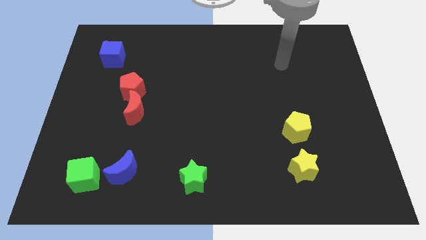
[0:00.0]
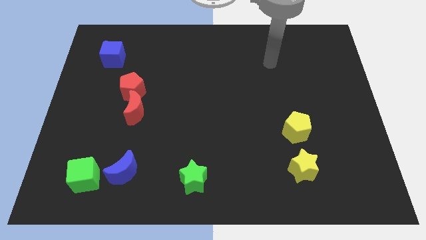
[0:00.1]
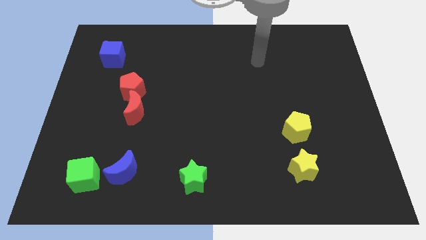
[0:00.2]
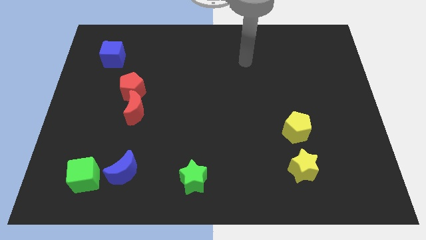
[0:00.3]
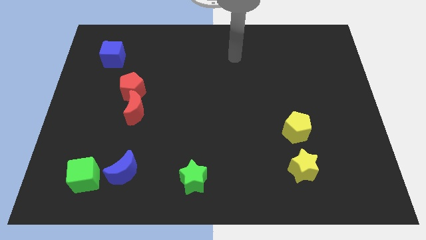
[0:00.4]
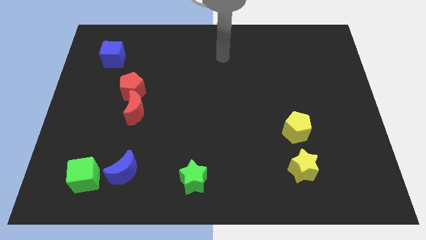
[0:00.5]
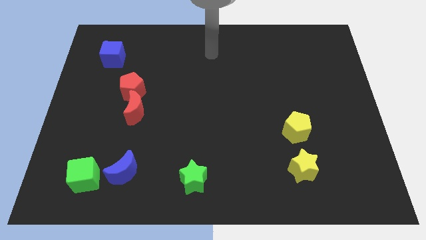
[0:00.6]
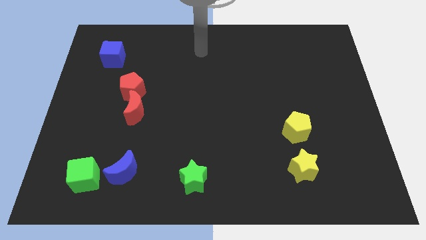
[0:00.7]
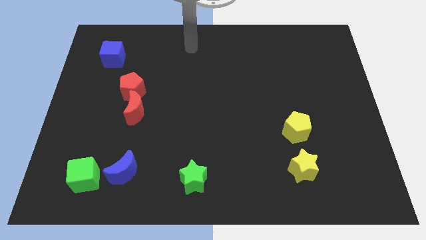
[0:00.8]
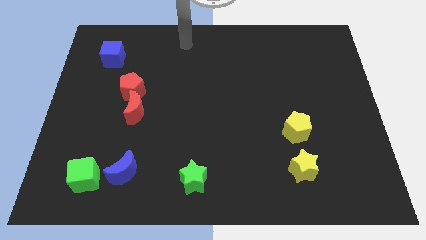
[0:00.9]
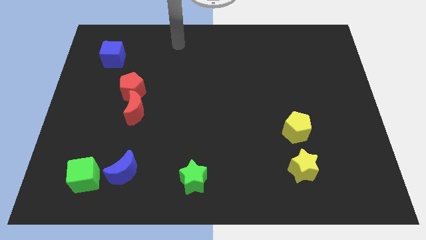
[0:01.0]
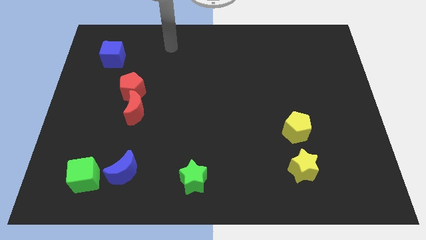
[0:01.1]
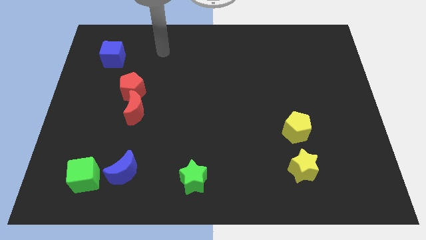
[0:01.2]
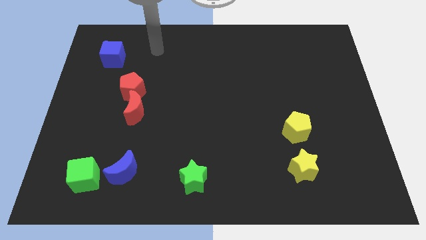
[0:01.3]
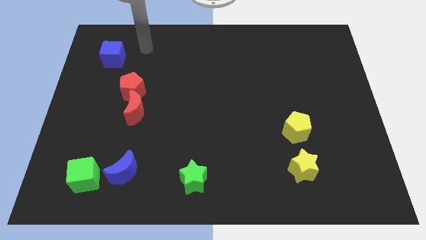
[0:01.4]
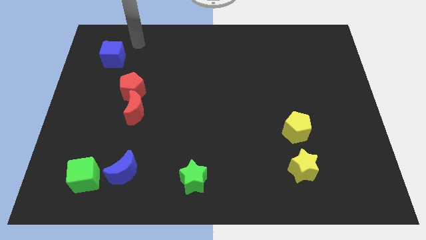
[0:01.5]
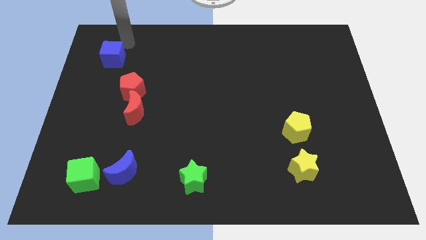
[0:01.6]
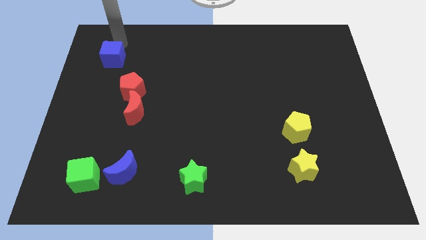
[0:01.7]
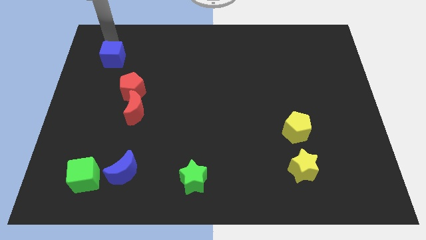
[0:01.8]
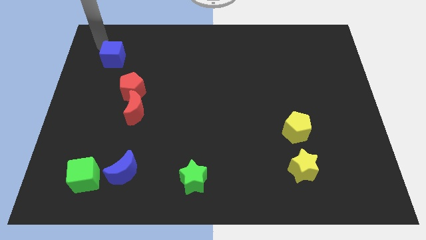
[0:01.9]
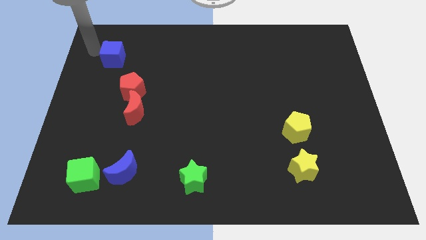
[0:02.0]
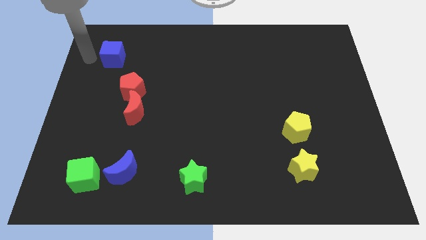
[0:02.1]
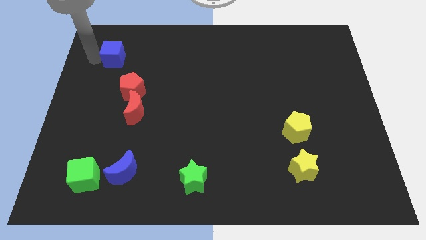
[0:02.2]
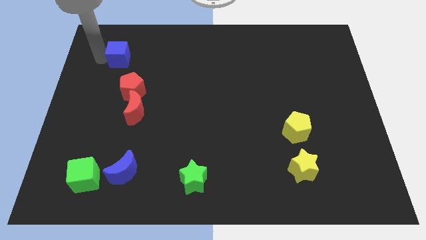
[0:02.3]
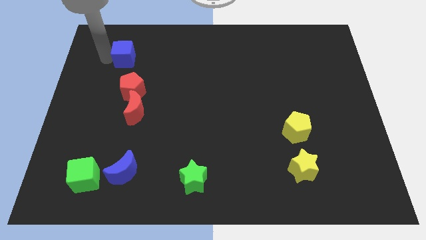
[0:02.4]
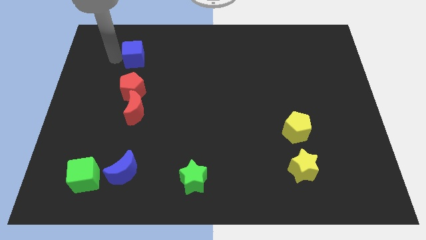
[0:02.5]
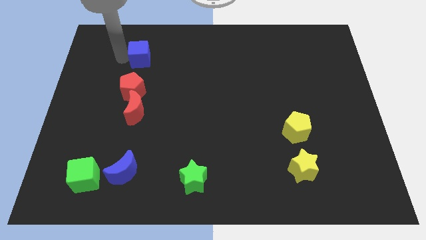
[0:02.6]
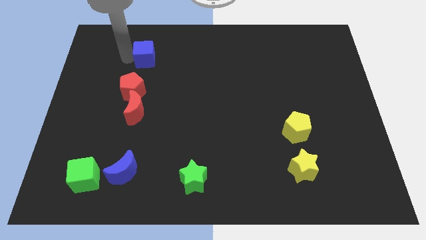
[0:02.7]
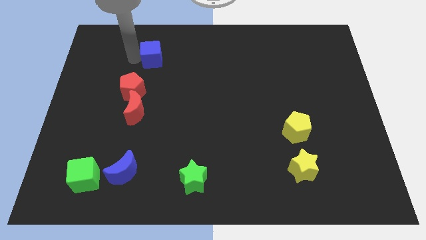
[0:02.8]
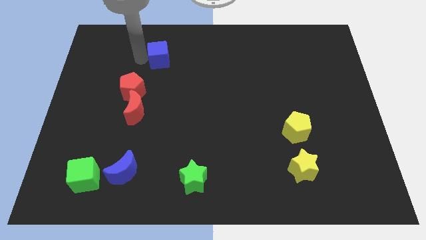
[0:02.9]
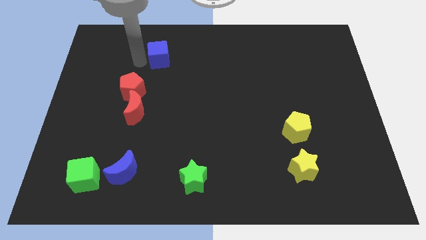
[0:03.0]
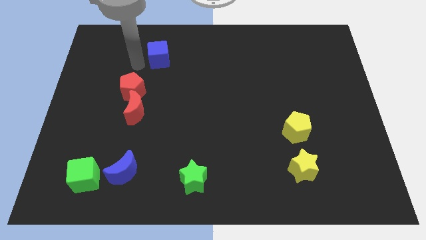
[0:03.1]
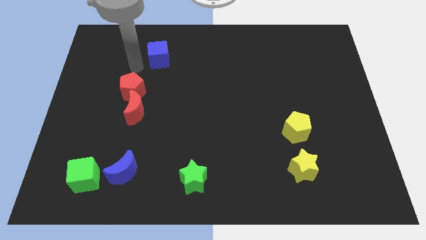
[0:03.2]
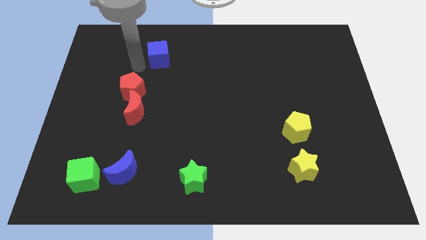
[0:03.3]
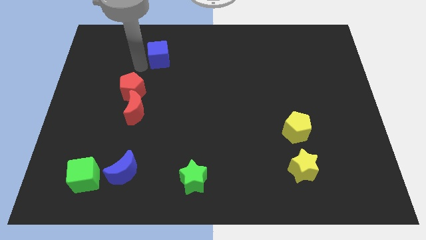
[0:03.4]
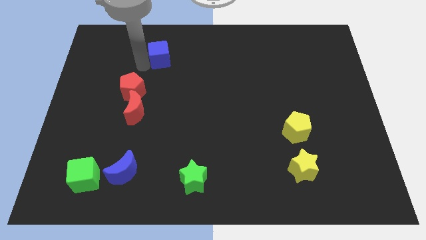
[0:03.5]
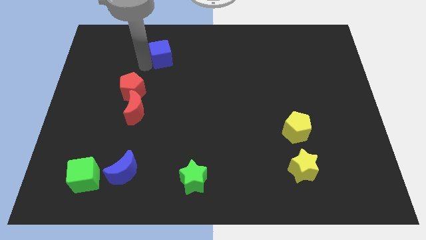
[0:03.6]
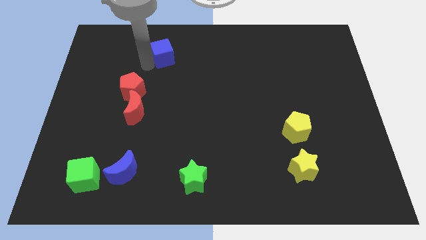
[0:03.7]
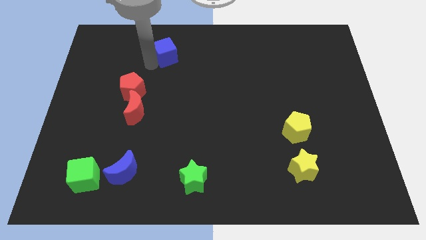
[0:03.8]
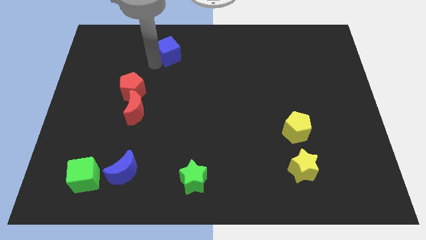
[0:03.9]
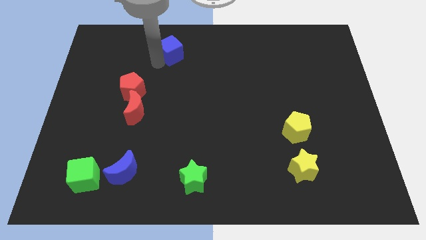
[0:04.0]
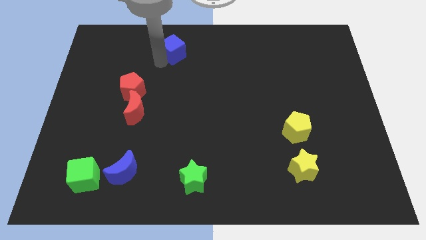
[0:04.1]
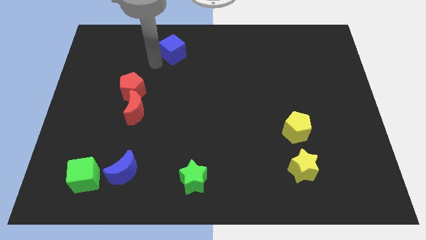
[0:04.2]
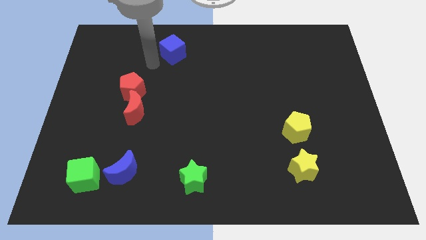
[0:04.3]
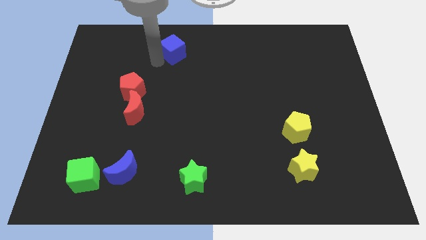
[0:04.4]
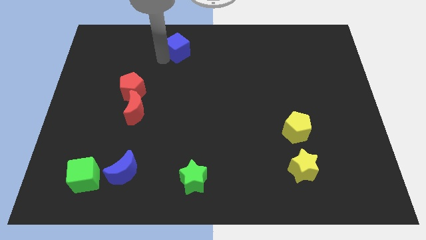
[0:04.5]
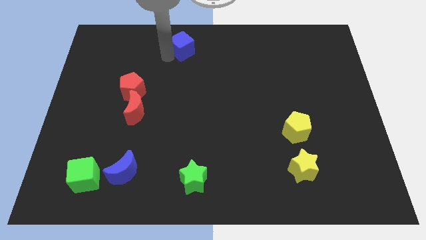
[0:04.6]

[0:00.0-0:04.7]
slide the blue cube to the top

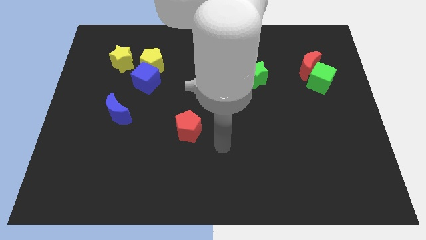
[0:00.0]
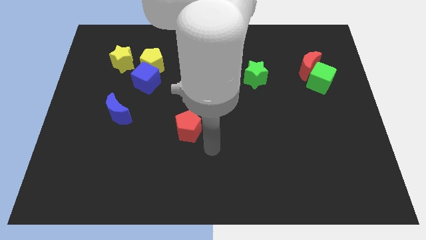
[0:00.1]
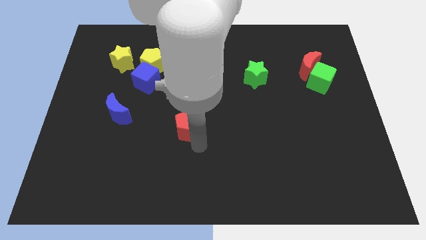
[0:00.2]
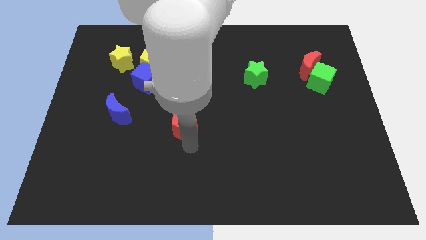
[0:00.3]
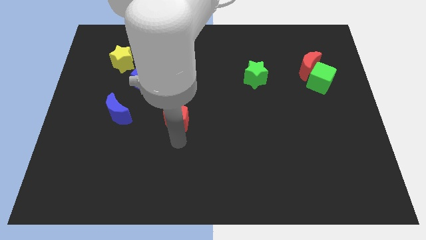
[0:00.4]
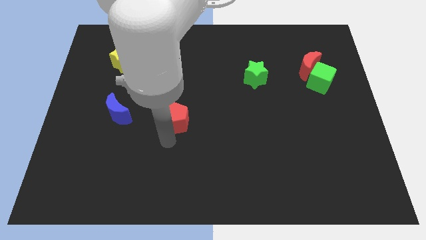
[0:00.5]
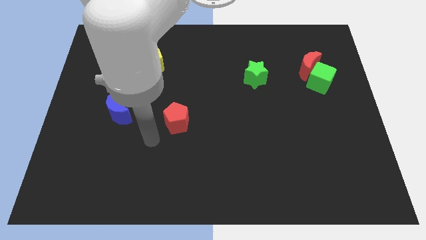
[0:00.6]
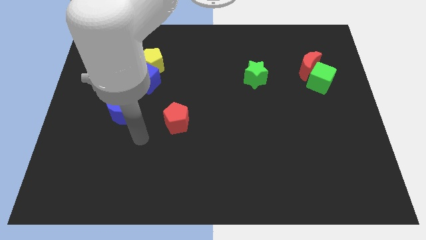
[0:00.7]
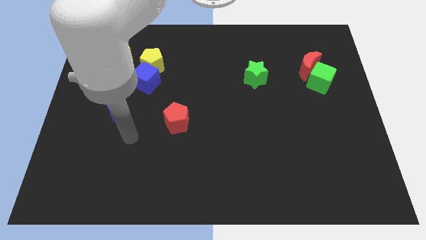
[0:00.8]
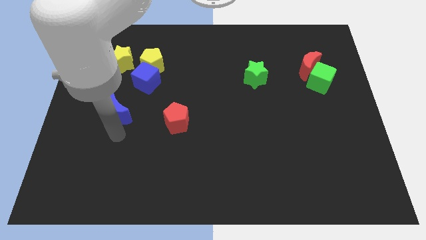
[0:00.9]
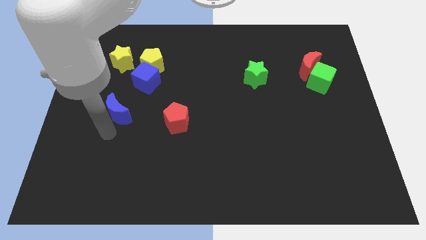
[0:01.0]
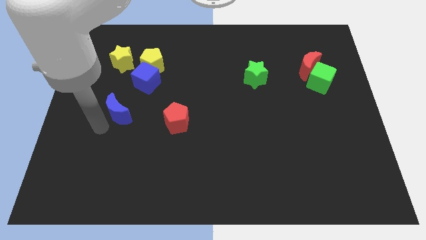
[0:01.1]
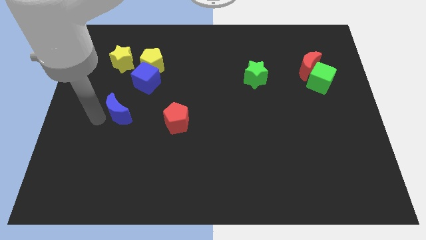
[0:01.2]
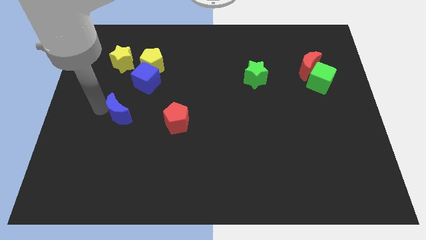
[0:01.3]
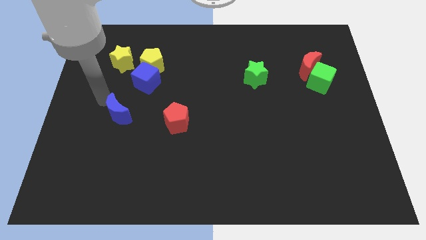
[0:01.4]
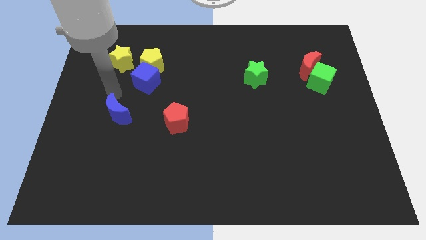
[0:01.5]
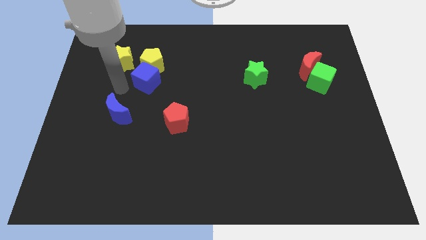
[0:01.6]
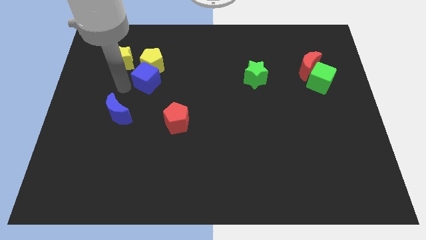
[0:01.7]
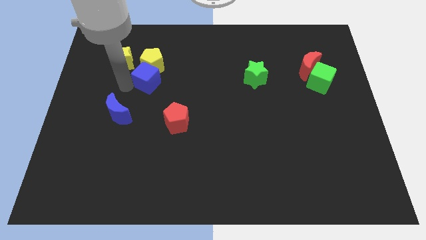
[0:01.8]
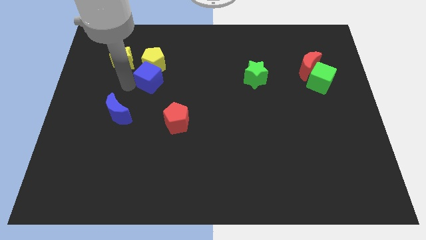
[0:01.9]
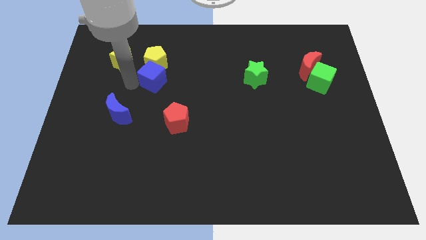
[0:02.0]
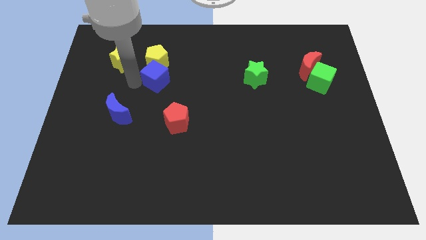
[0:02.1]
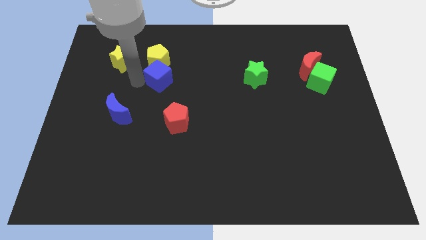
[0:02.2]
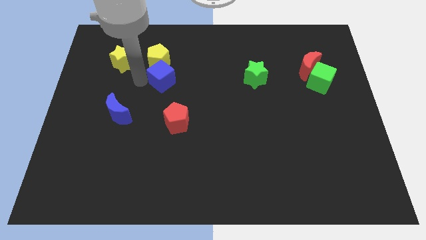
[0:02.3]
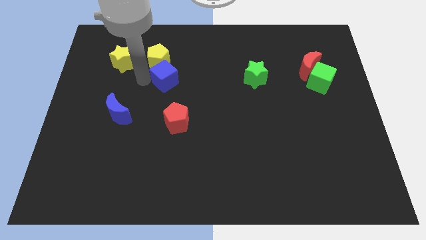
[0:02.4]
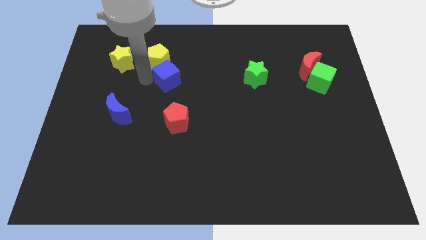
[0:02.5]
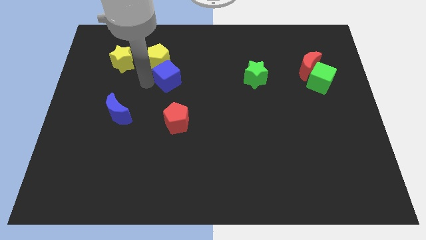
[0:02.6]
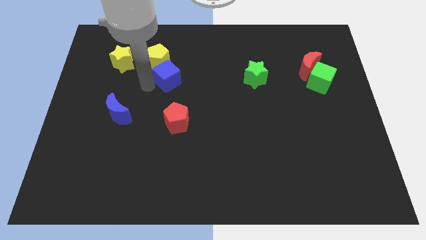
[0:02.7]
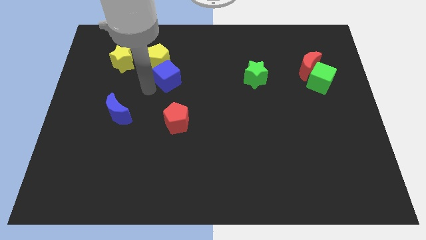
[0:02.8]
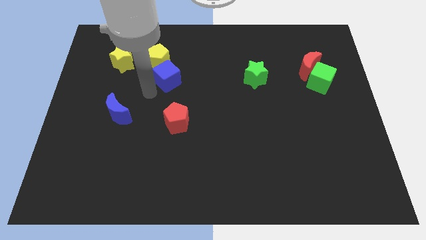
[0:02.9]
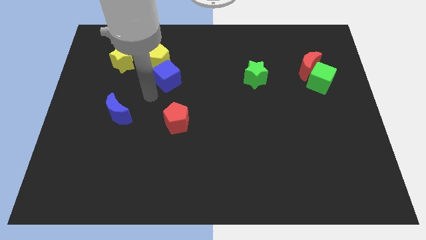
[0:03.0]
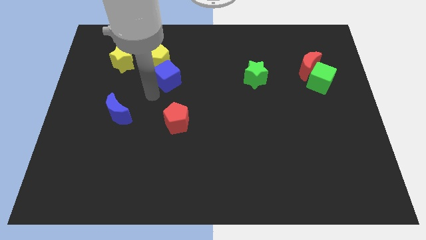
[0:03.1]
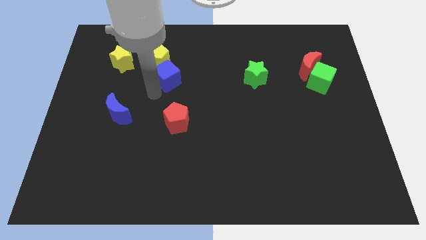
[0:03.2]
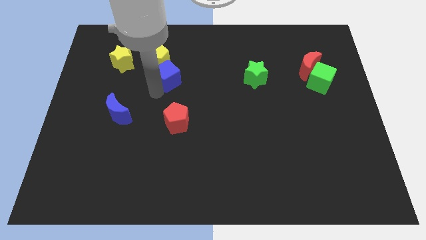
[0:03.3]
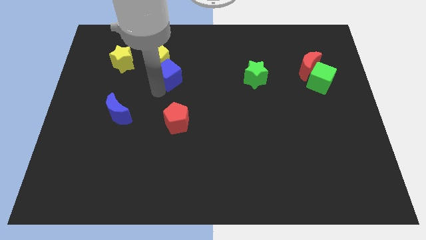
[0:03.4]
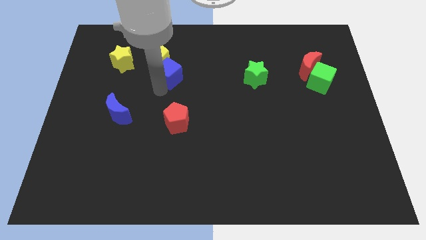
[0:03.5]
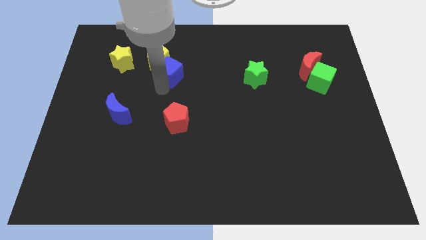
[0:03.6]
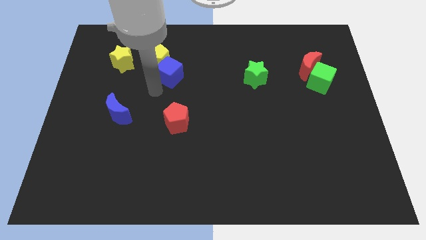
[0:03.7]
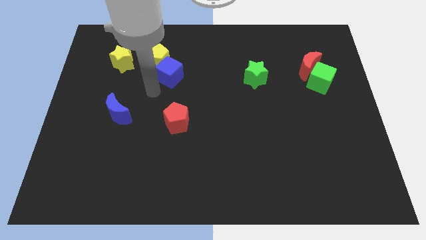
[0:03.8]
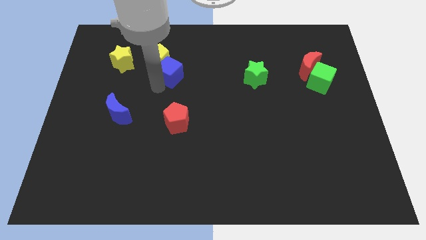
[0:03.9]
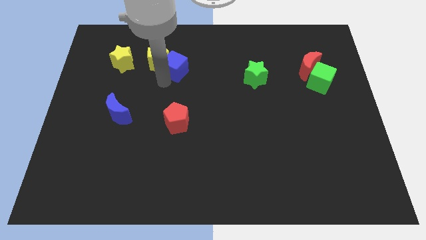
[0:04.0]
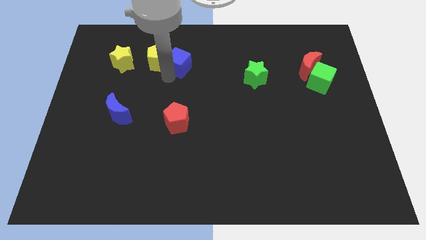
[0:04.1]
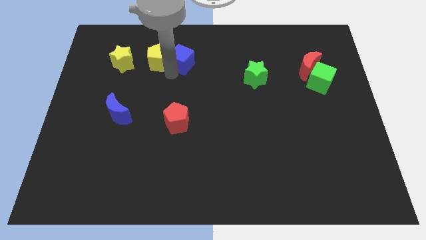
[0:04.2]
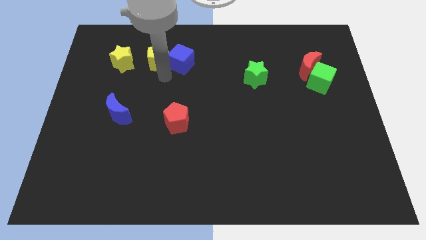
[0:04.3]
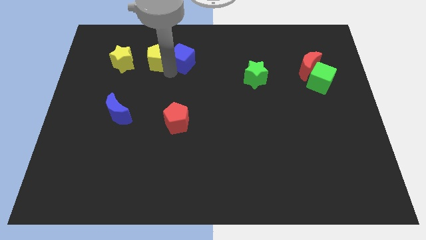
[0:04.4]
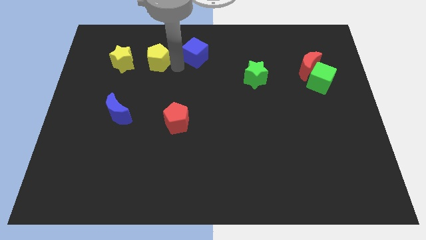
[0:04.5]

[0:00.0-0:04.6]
push the blue cube to the top
